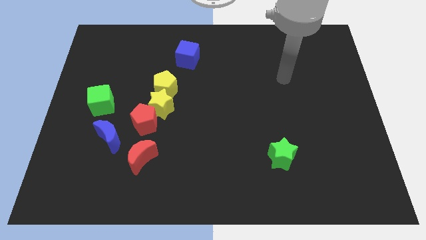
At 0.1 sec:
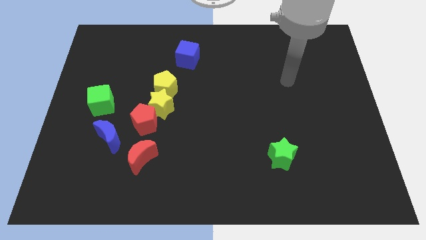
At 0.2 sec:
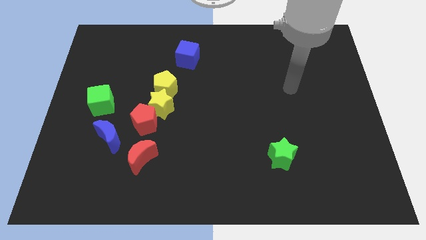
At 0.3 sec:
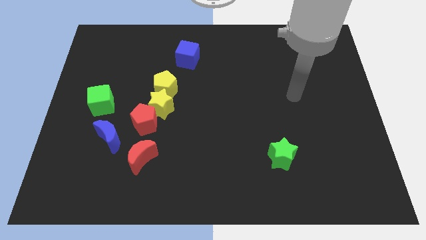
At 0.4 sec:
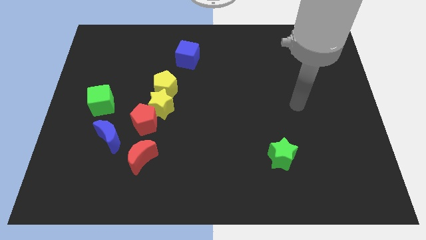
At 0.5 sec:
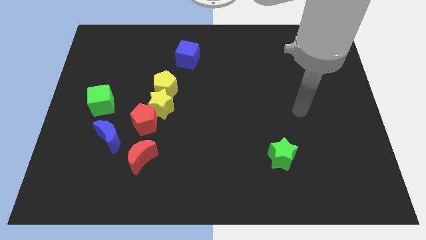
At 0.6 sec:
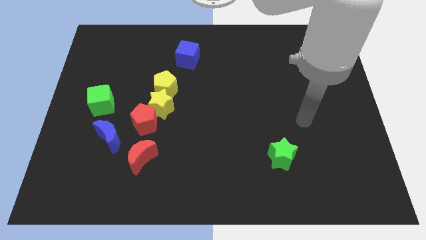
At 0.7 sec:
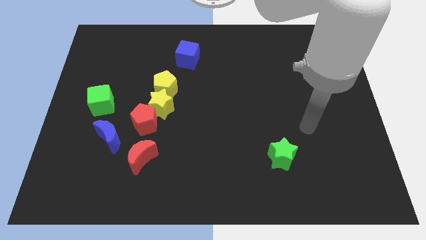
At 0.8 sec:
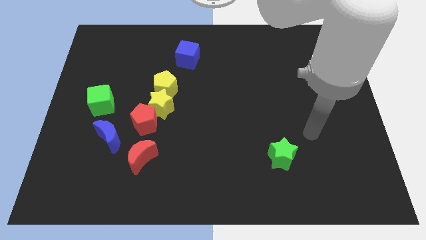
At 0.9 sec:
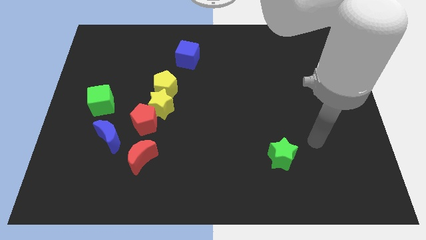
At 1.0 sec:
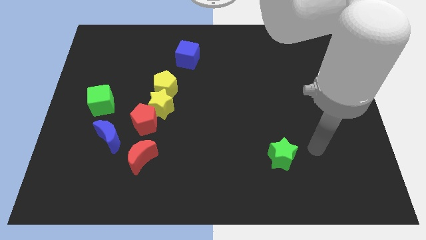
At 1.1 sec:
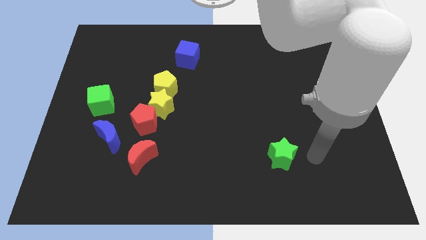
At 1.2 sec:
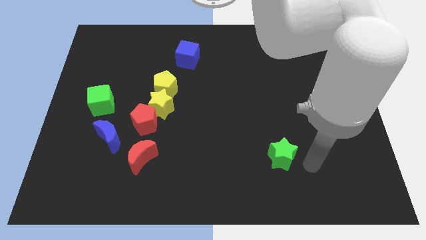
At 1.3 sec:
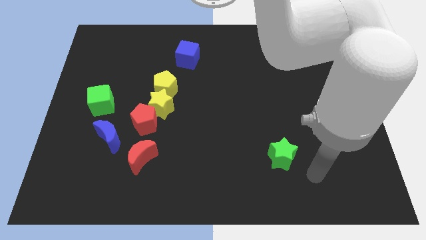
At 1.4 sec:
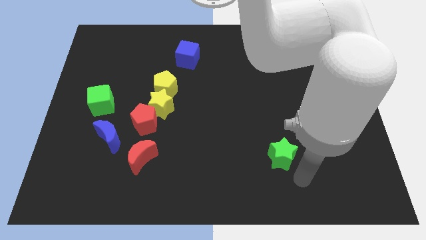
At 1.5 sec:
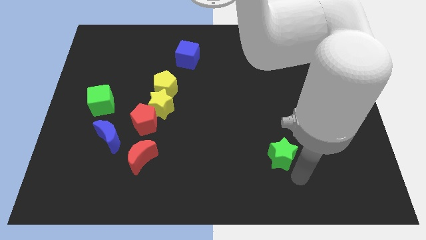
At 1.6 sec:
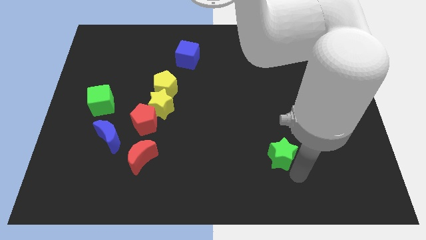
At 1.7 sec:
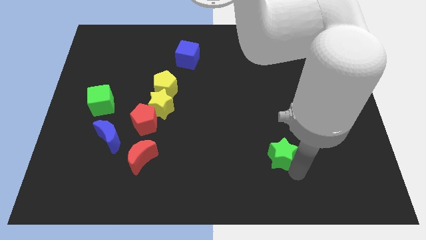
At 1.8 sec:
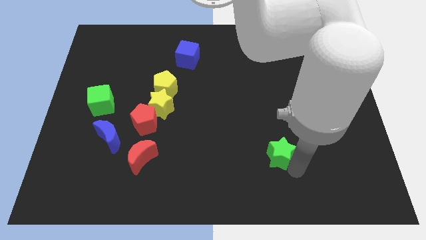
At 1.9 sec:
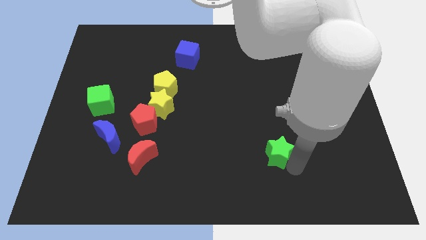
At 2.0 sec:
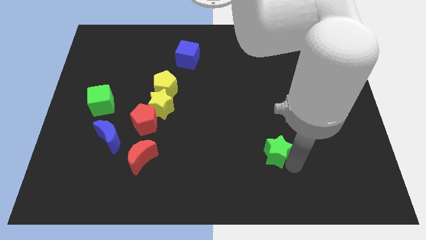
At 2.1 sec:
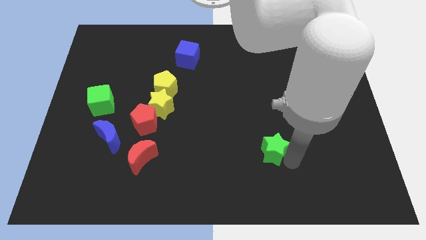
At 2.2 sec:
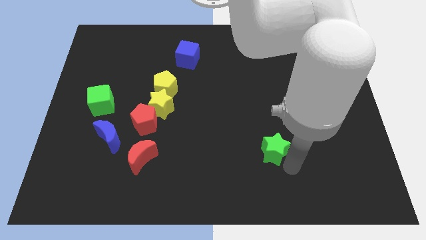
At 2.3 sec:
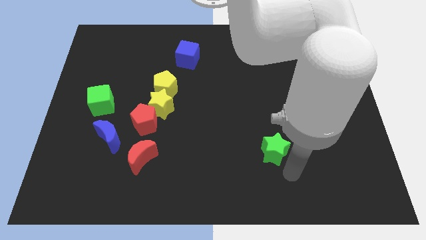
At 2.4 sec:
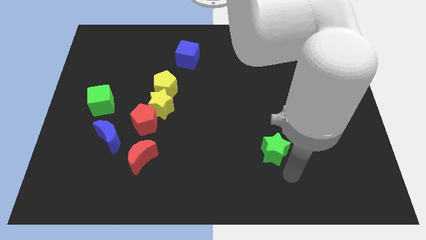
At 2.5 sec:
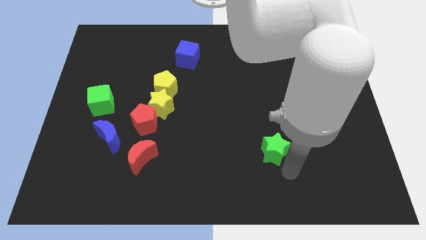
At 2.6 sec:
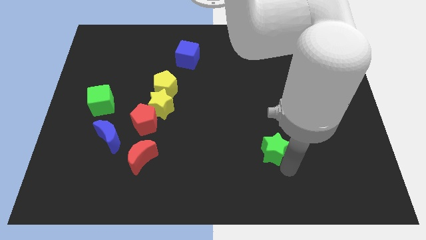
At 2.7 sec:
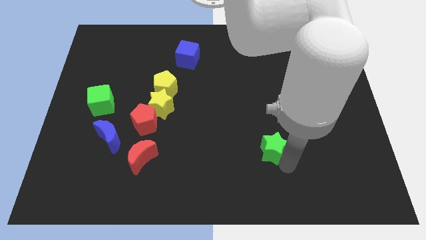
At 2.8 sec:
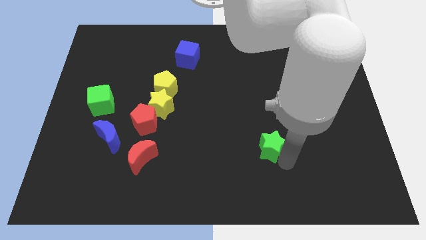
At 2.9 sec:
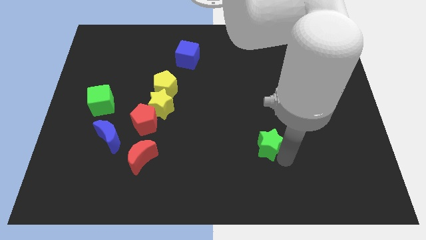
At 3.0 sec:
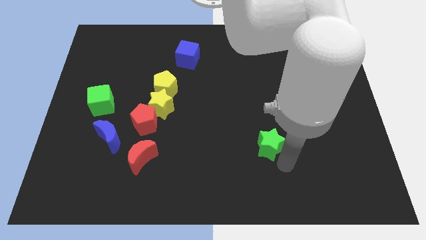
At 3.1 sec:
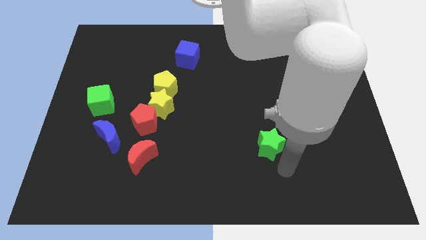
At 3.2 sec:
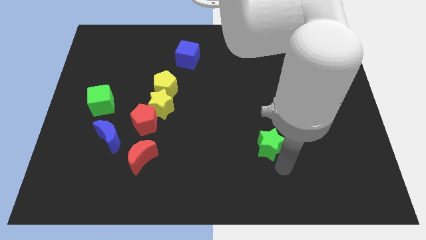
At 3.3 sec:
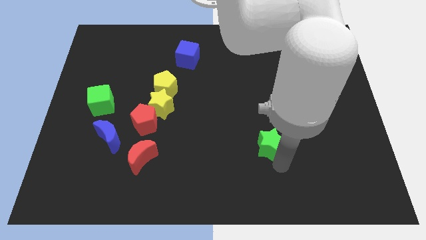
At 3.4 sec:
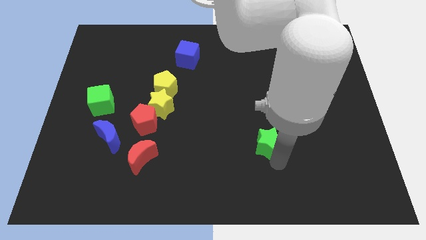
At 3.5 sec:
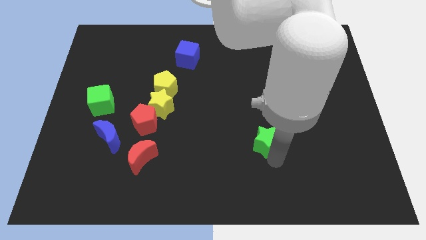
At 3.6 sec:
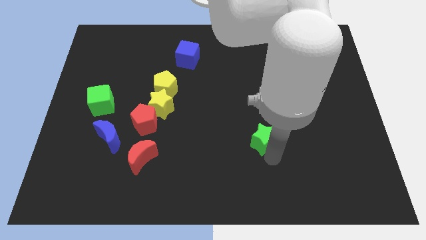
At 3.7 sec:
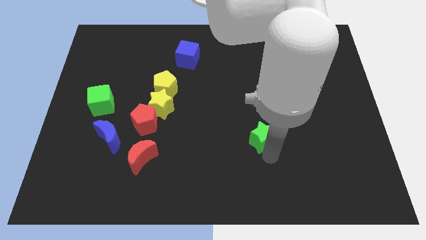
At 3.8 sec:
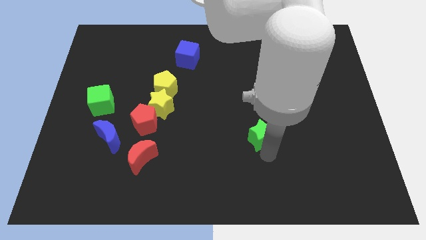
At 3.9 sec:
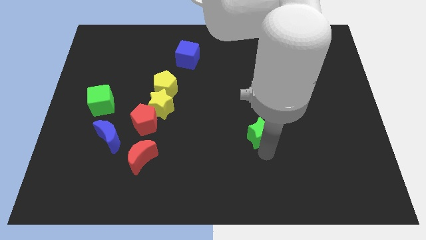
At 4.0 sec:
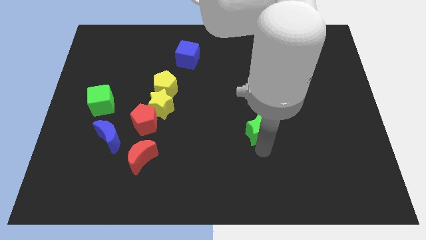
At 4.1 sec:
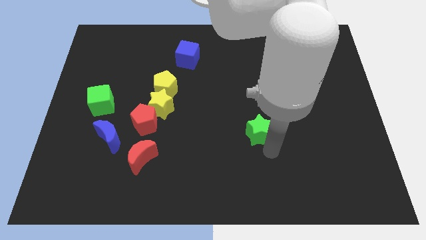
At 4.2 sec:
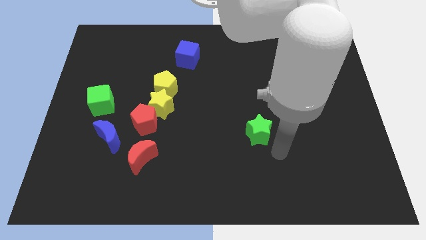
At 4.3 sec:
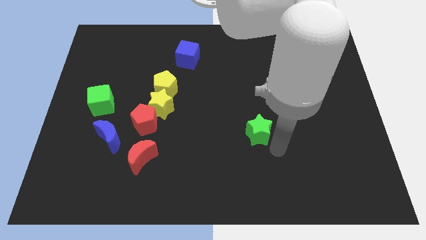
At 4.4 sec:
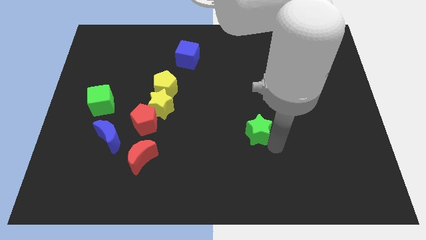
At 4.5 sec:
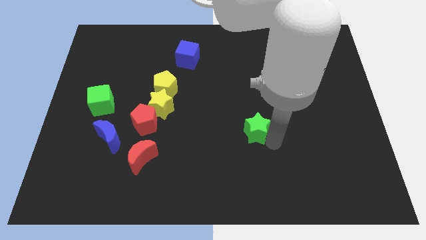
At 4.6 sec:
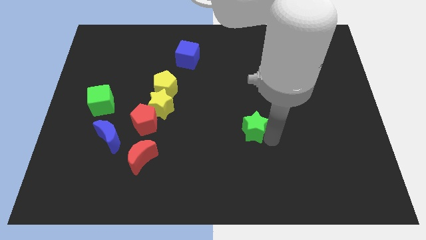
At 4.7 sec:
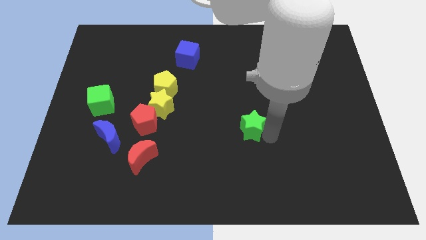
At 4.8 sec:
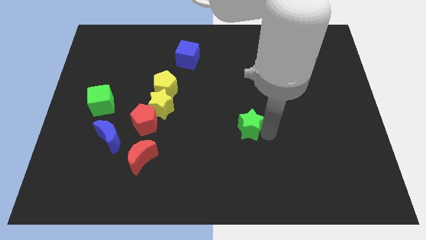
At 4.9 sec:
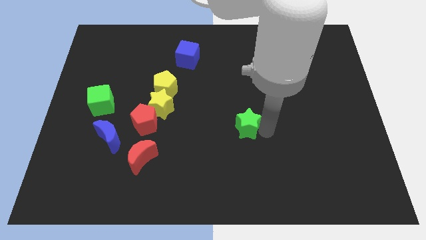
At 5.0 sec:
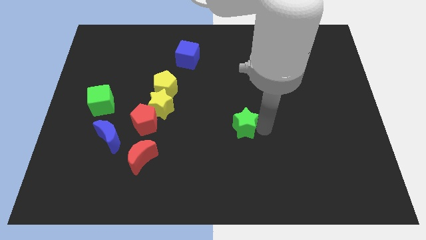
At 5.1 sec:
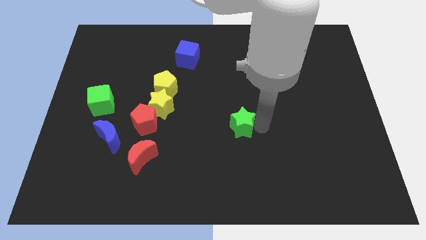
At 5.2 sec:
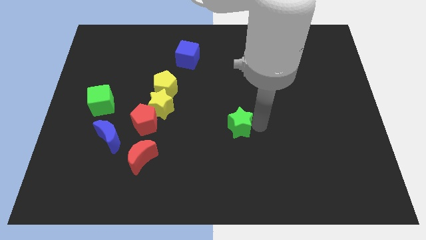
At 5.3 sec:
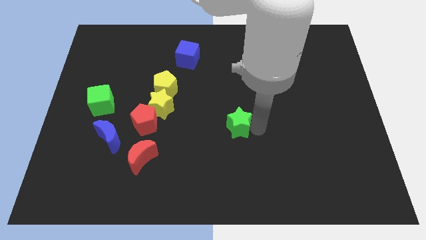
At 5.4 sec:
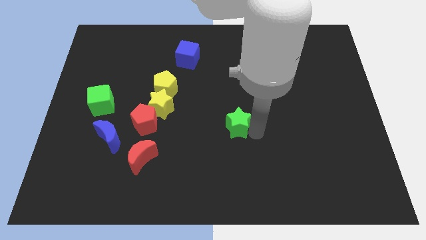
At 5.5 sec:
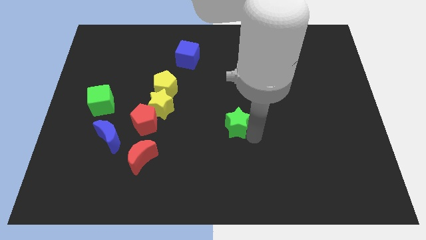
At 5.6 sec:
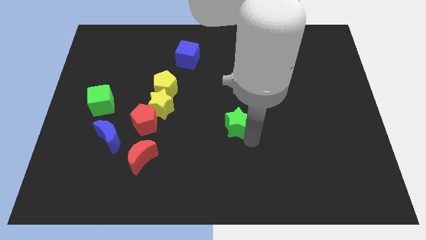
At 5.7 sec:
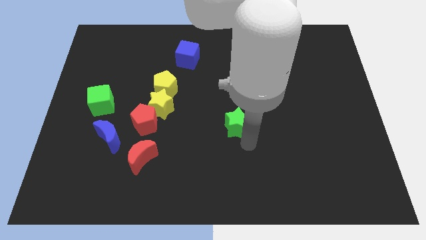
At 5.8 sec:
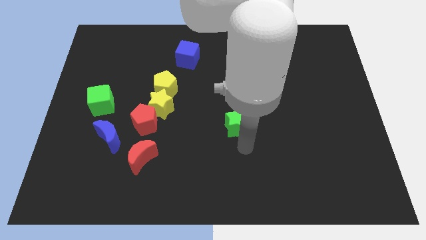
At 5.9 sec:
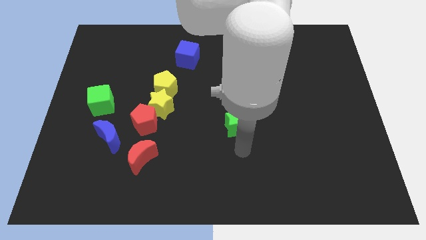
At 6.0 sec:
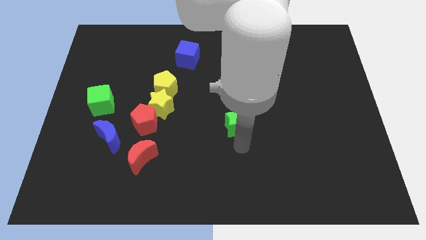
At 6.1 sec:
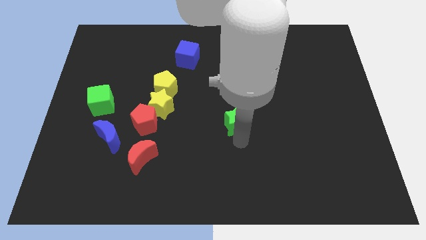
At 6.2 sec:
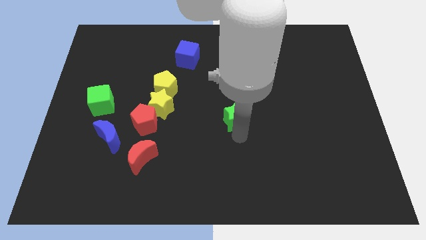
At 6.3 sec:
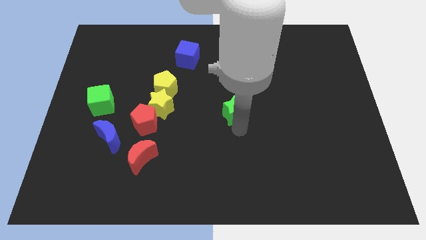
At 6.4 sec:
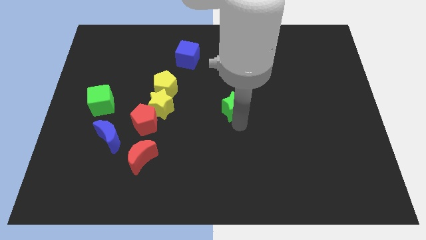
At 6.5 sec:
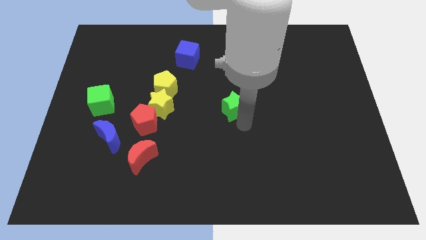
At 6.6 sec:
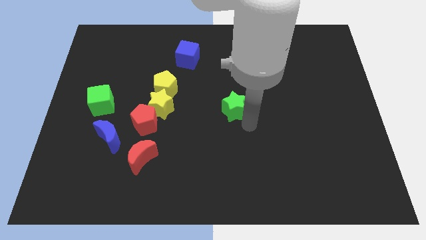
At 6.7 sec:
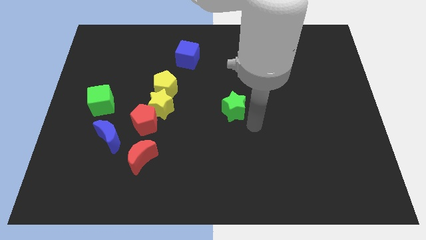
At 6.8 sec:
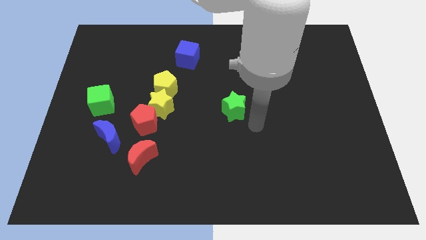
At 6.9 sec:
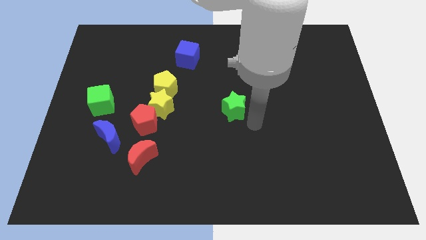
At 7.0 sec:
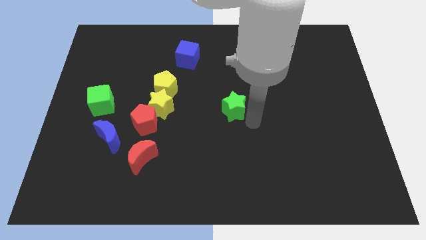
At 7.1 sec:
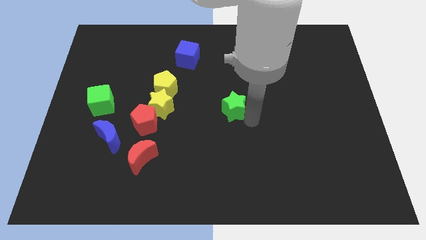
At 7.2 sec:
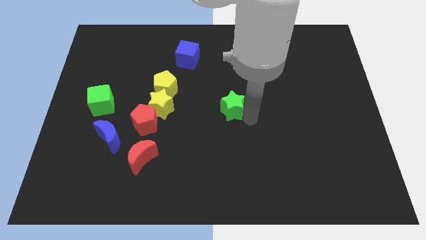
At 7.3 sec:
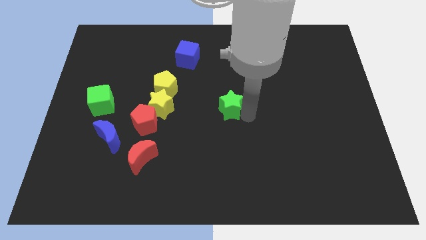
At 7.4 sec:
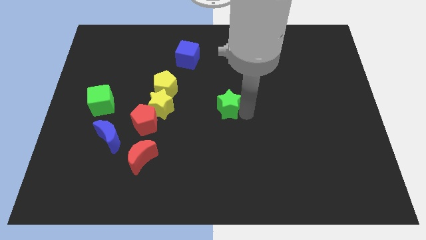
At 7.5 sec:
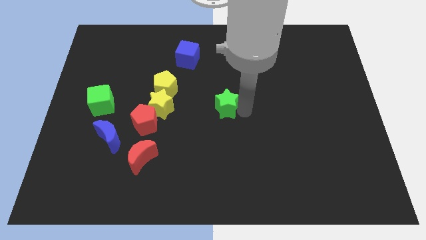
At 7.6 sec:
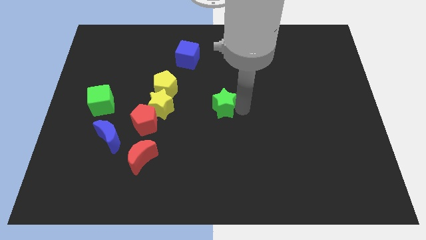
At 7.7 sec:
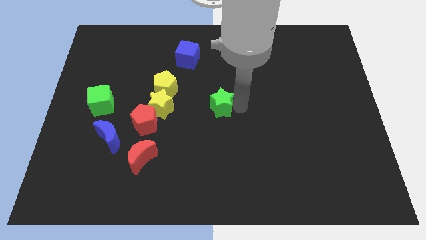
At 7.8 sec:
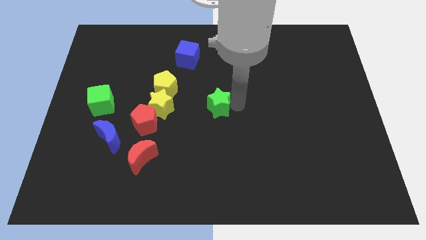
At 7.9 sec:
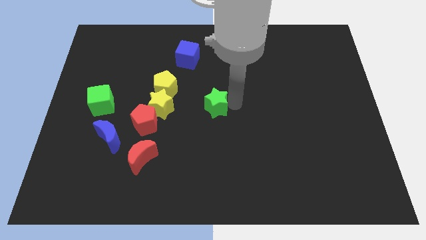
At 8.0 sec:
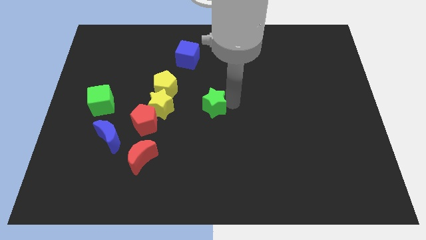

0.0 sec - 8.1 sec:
slide the green star upwards and then left
